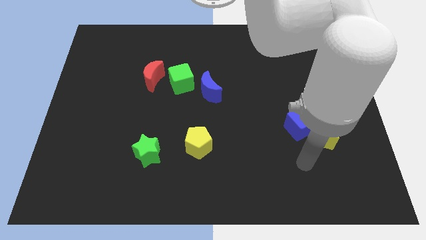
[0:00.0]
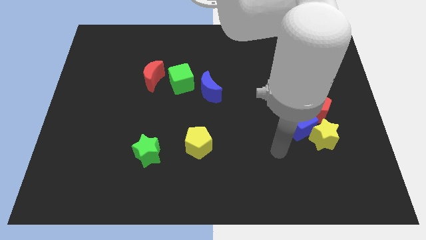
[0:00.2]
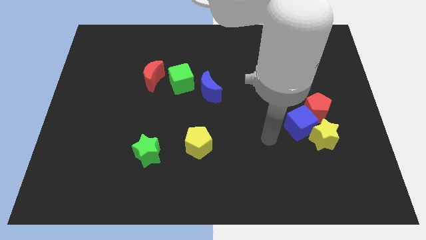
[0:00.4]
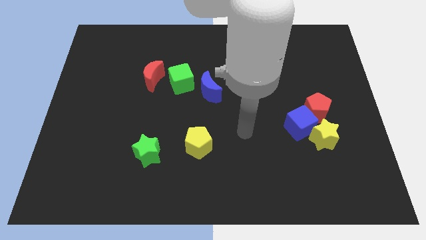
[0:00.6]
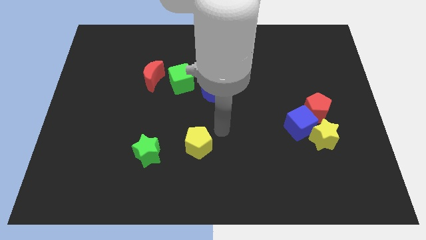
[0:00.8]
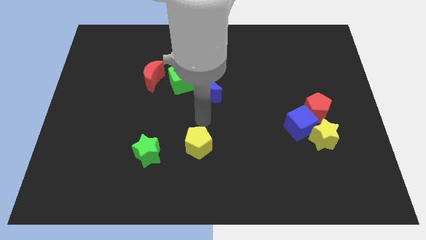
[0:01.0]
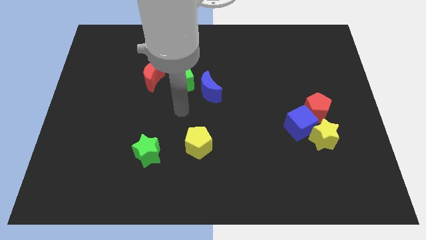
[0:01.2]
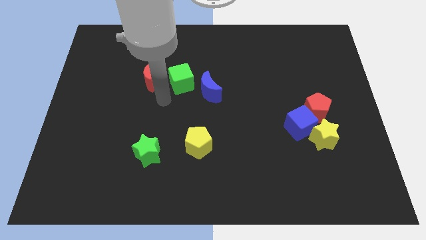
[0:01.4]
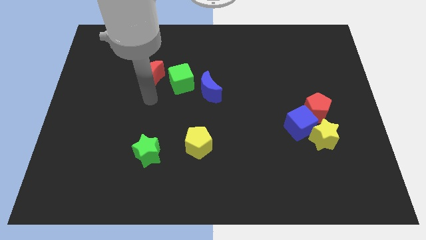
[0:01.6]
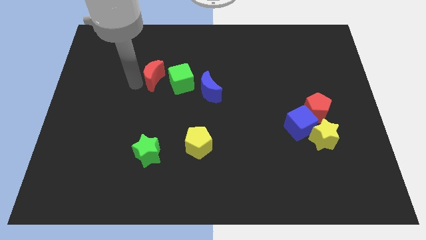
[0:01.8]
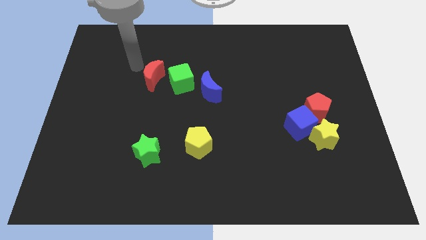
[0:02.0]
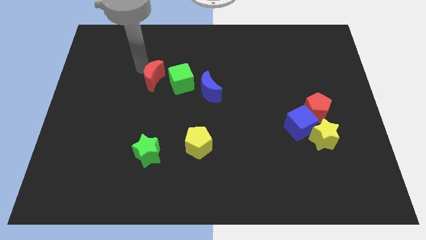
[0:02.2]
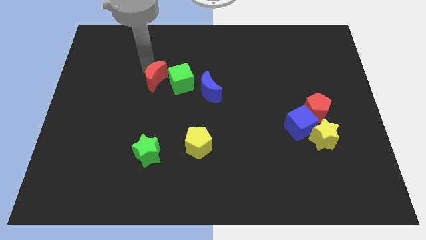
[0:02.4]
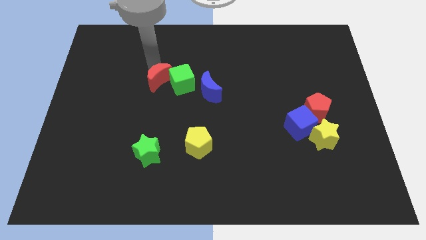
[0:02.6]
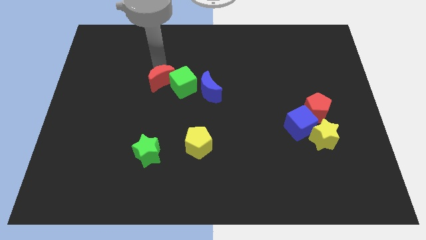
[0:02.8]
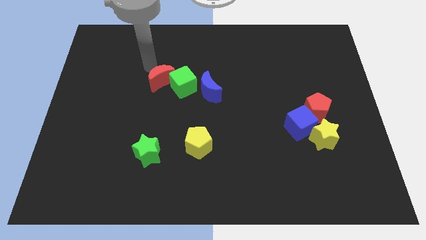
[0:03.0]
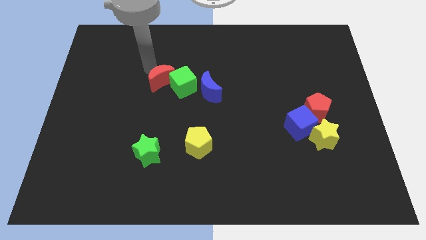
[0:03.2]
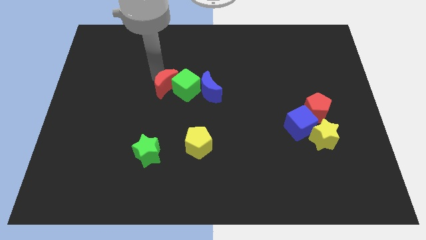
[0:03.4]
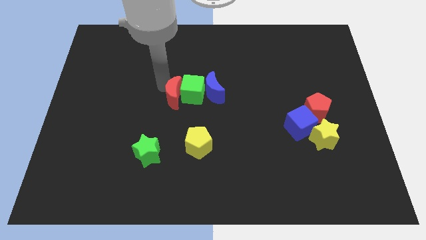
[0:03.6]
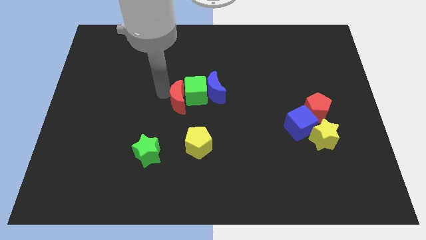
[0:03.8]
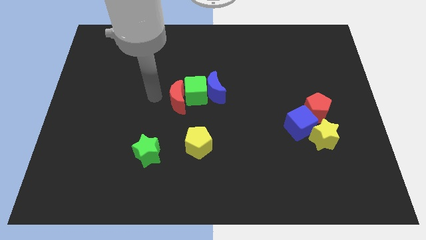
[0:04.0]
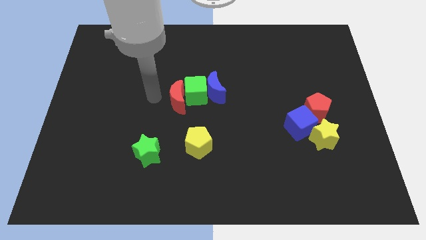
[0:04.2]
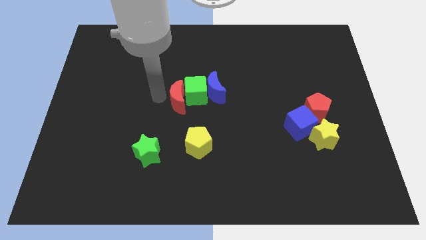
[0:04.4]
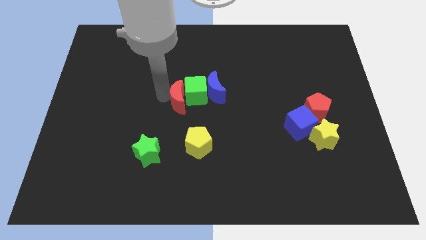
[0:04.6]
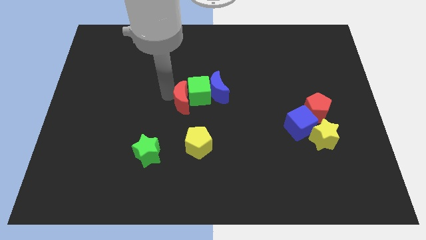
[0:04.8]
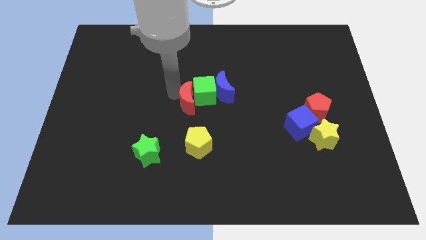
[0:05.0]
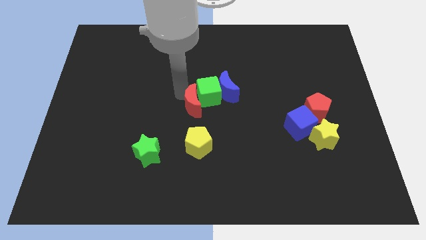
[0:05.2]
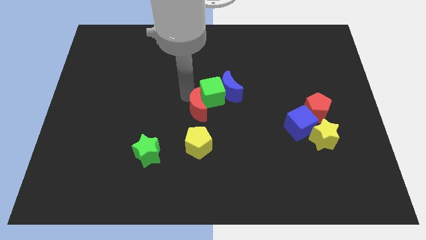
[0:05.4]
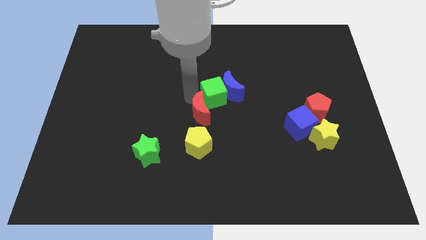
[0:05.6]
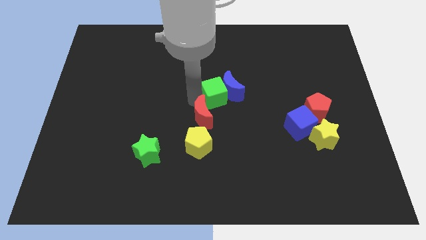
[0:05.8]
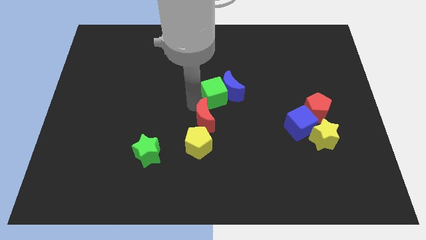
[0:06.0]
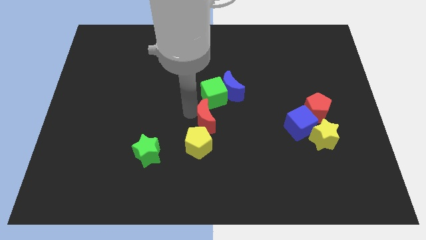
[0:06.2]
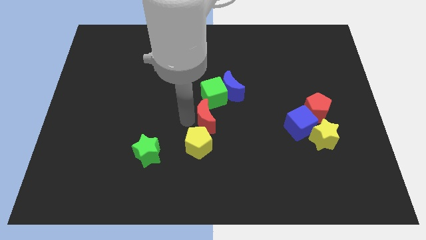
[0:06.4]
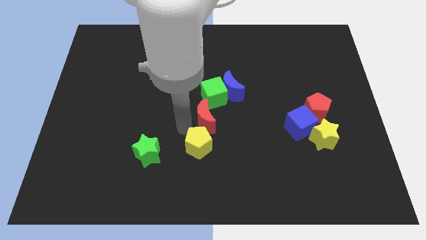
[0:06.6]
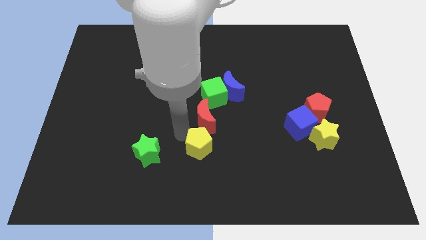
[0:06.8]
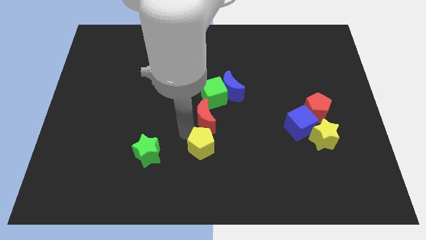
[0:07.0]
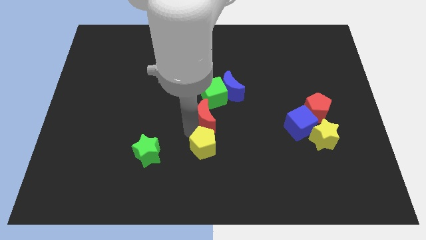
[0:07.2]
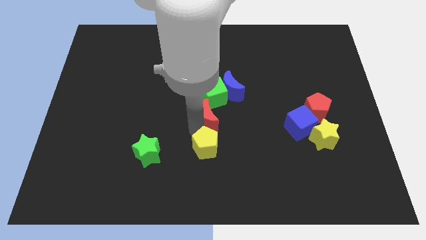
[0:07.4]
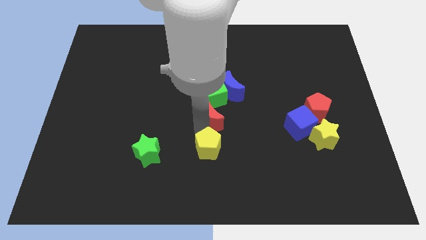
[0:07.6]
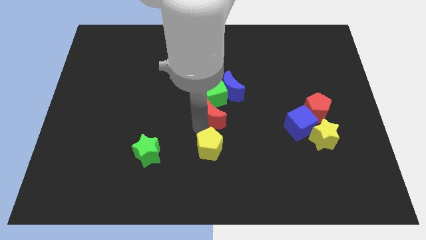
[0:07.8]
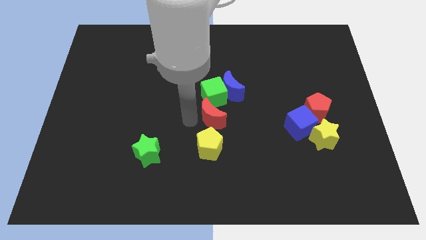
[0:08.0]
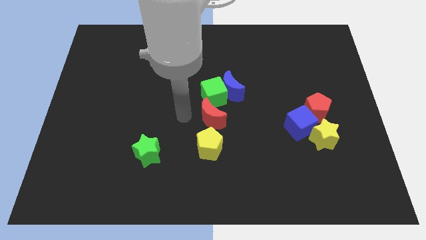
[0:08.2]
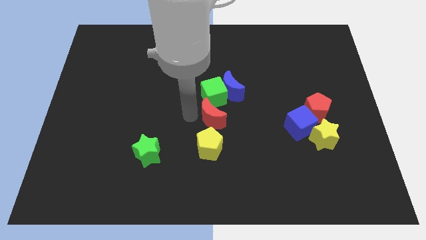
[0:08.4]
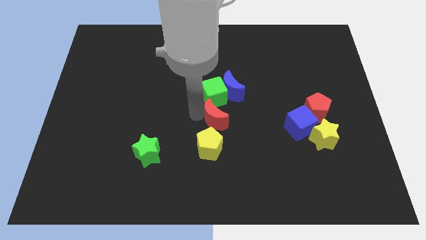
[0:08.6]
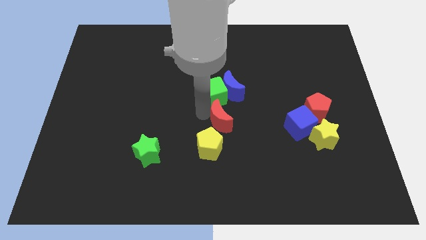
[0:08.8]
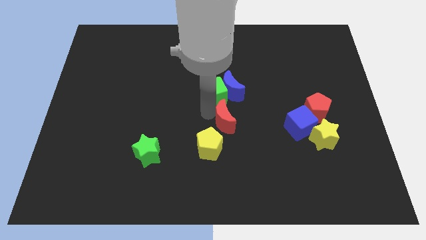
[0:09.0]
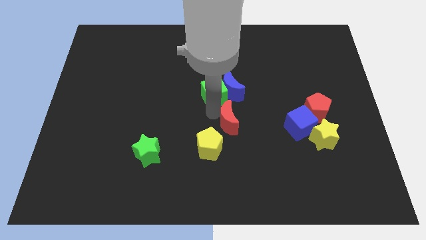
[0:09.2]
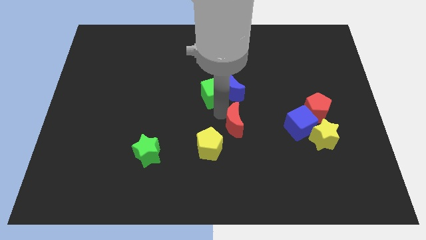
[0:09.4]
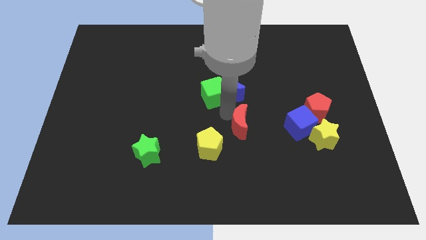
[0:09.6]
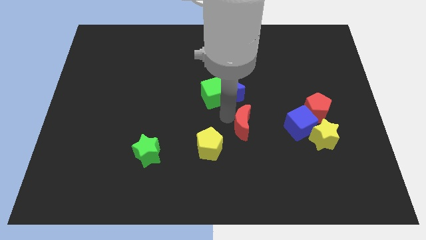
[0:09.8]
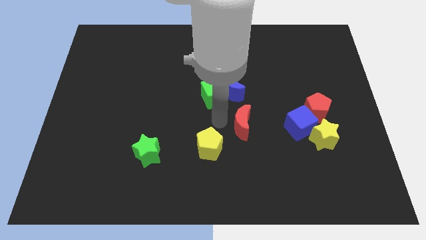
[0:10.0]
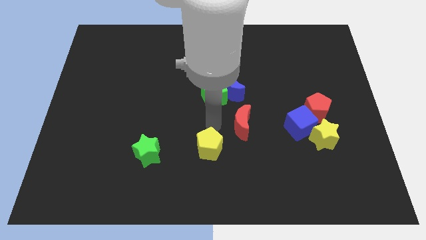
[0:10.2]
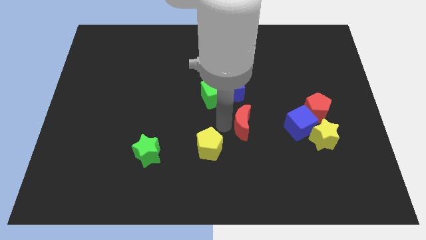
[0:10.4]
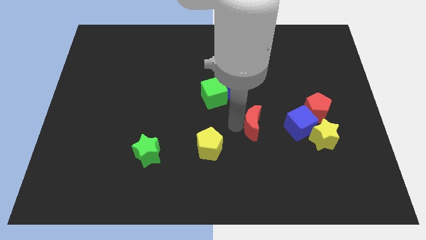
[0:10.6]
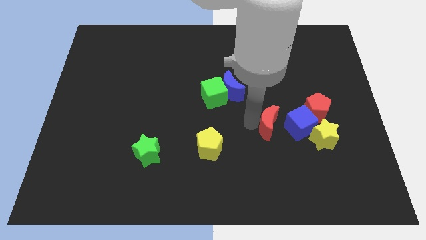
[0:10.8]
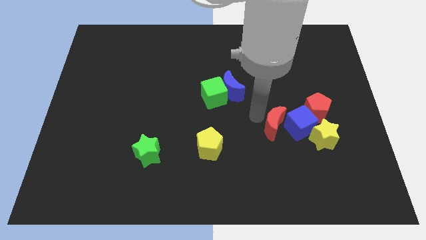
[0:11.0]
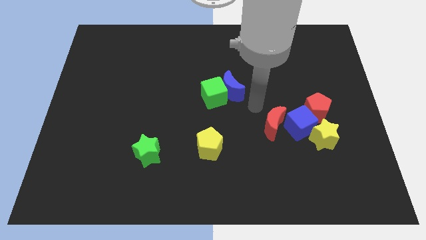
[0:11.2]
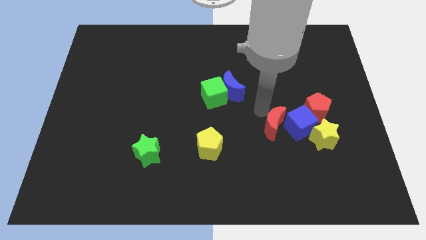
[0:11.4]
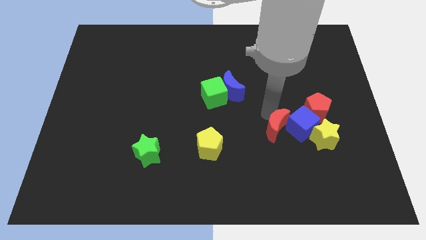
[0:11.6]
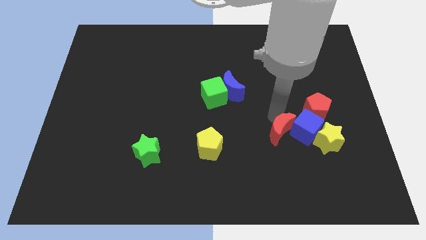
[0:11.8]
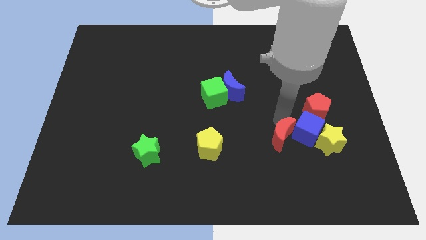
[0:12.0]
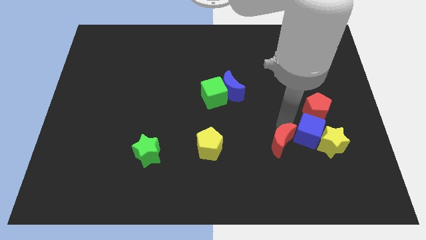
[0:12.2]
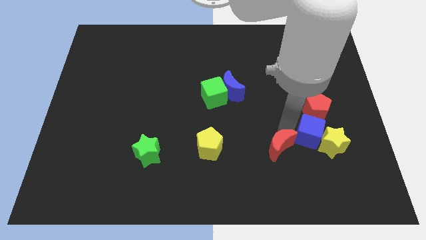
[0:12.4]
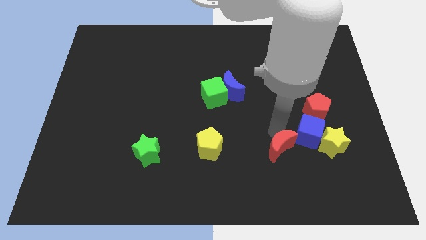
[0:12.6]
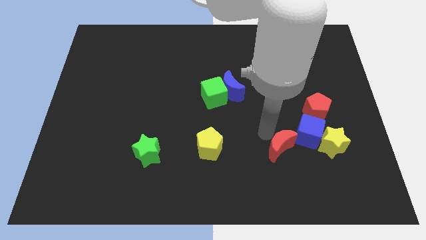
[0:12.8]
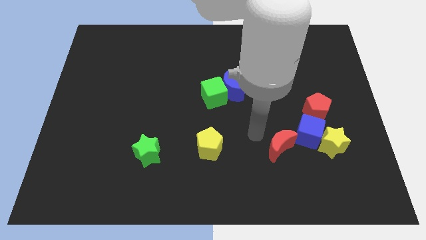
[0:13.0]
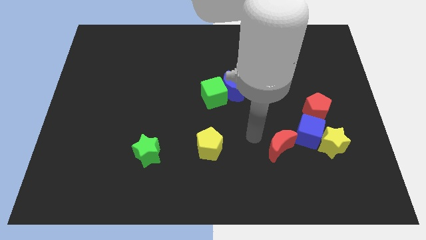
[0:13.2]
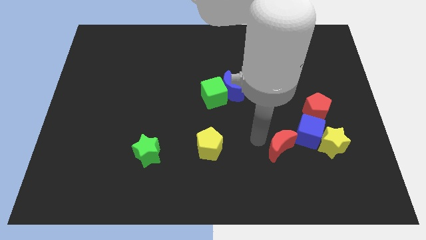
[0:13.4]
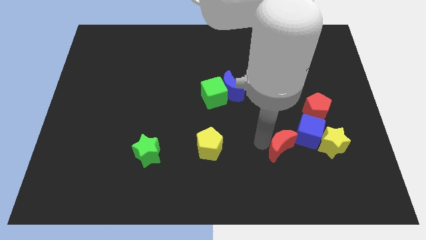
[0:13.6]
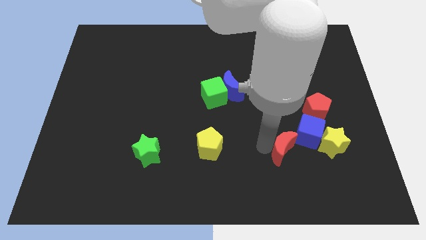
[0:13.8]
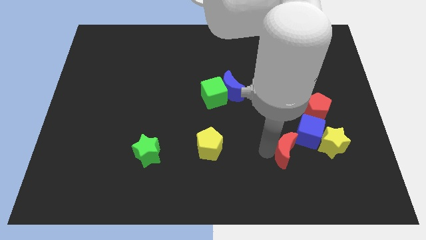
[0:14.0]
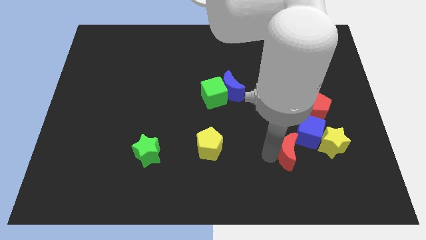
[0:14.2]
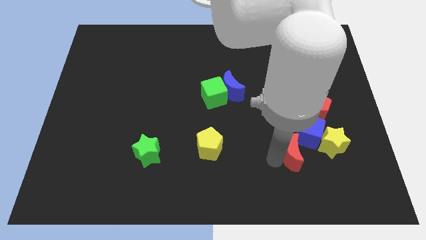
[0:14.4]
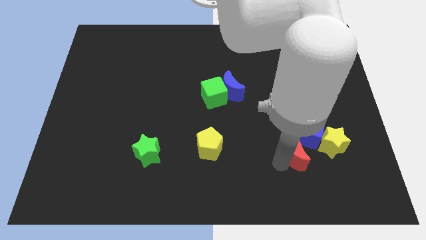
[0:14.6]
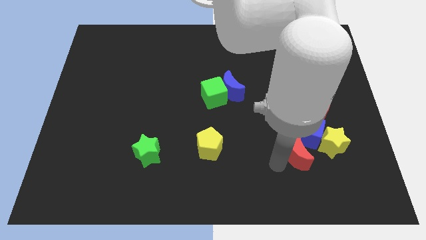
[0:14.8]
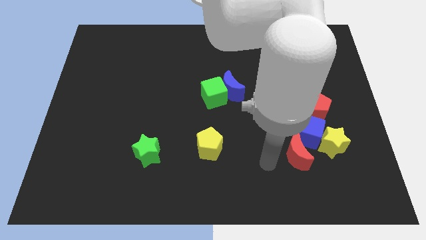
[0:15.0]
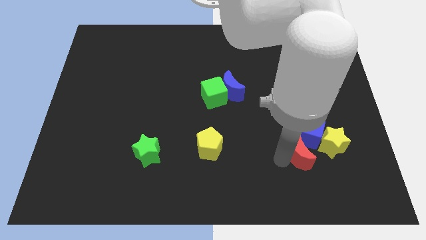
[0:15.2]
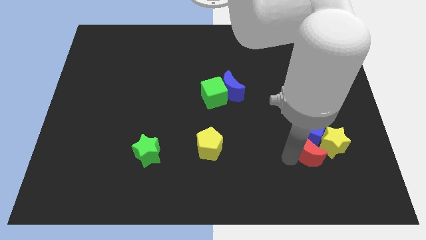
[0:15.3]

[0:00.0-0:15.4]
push the red moon to the bottom side of the red pentagon
